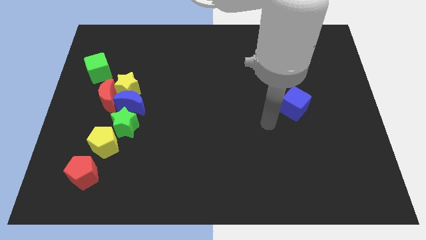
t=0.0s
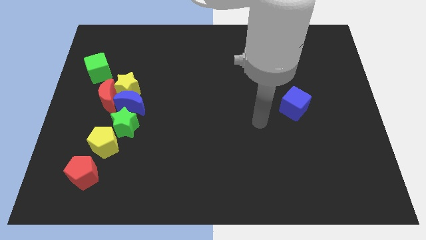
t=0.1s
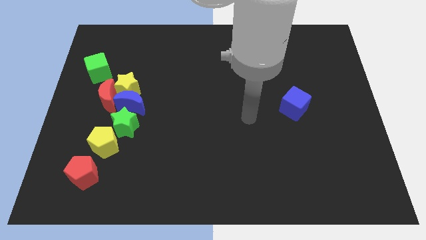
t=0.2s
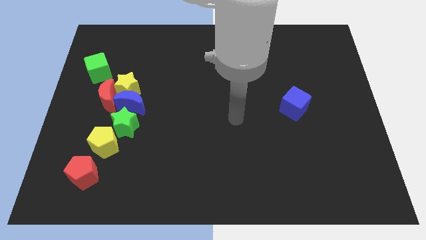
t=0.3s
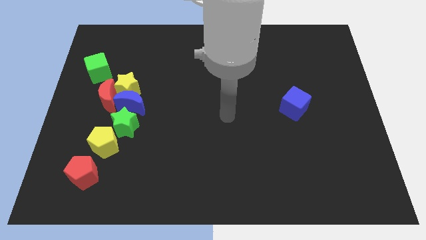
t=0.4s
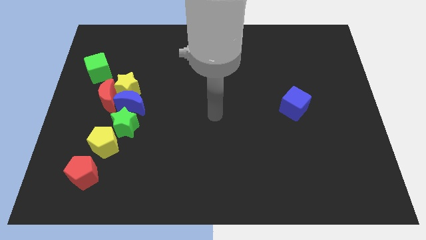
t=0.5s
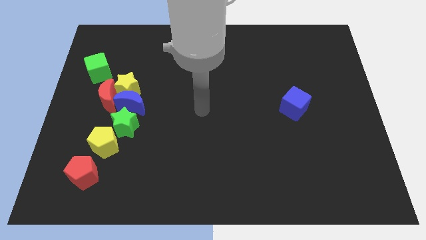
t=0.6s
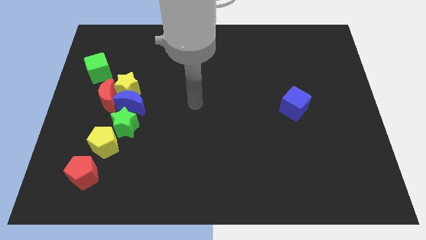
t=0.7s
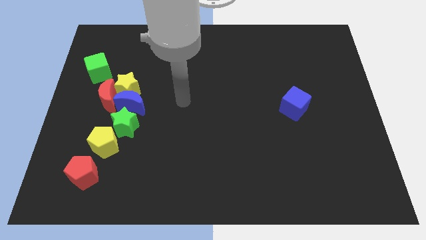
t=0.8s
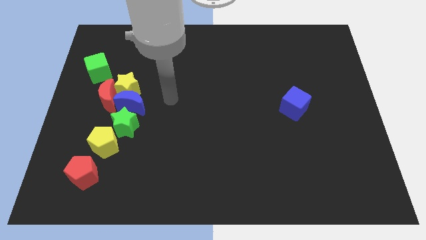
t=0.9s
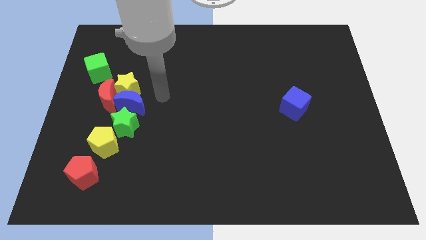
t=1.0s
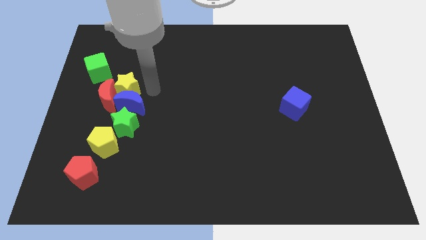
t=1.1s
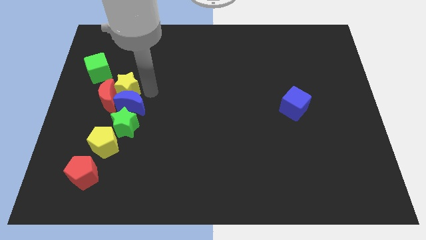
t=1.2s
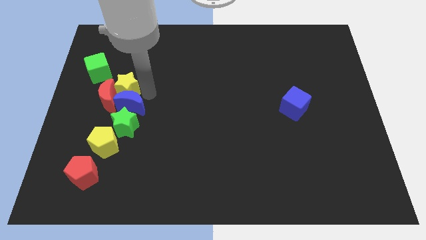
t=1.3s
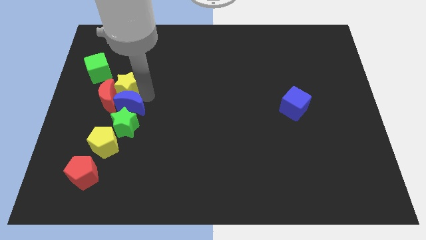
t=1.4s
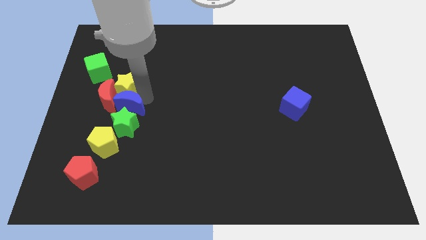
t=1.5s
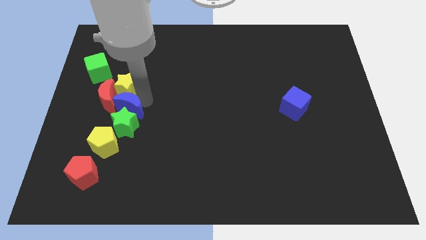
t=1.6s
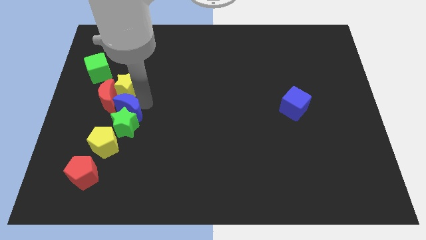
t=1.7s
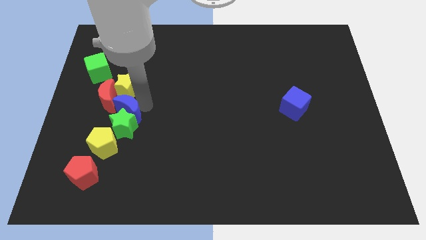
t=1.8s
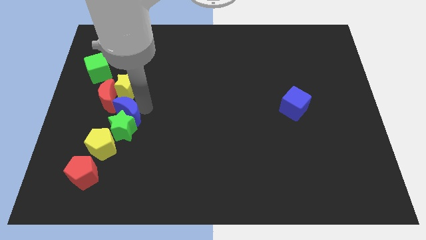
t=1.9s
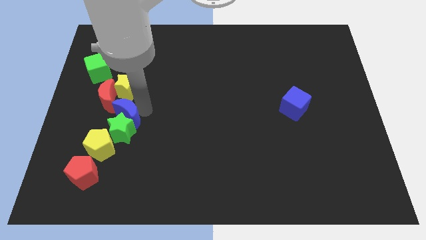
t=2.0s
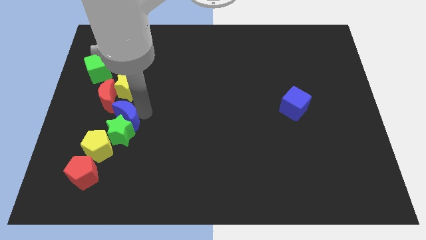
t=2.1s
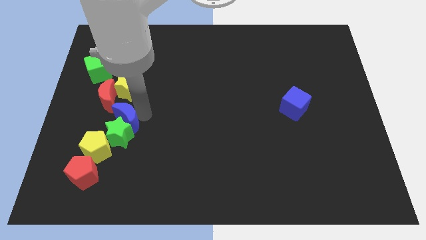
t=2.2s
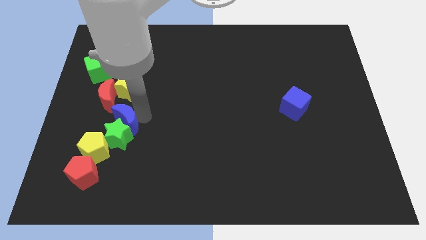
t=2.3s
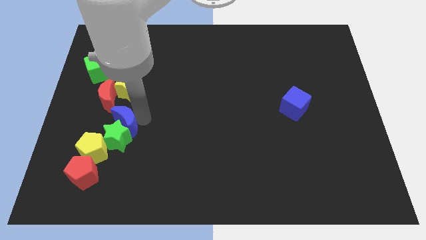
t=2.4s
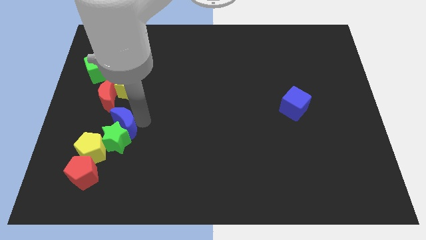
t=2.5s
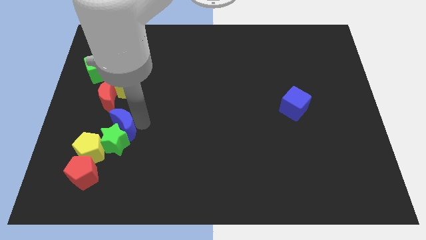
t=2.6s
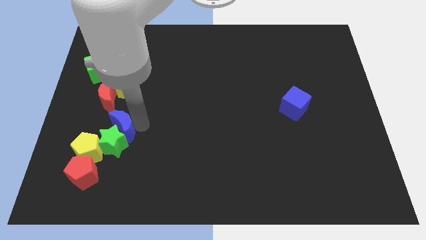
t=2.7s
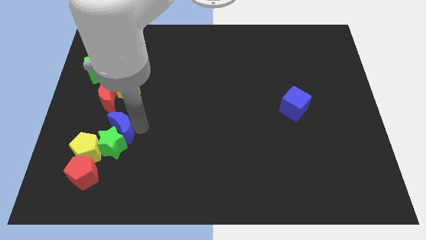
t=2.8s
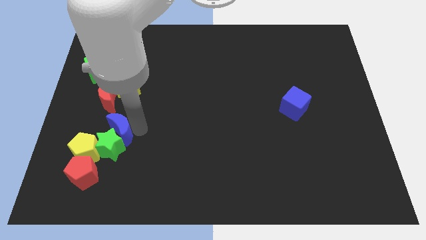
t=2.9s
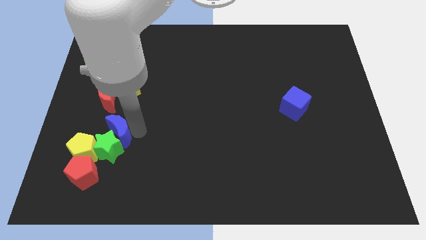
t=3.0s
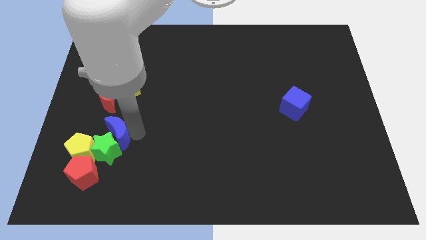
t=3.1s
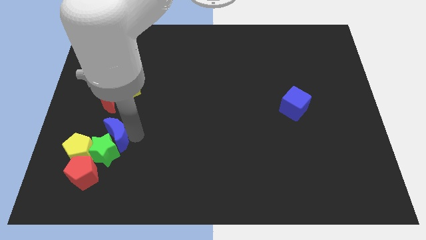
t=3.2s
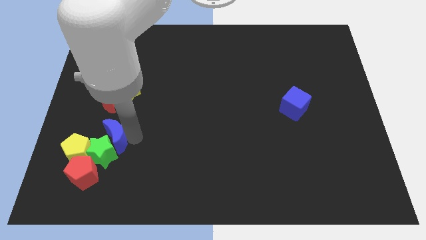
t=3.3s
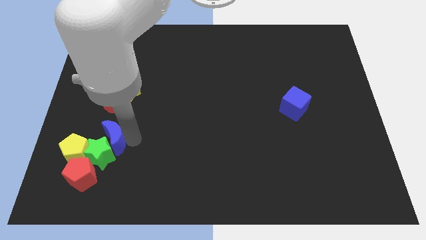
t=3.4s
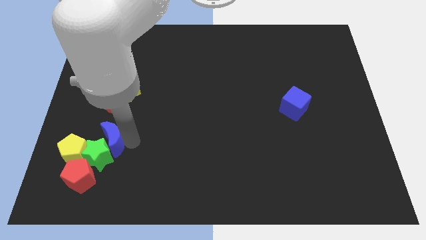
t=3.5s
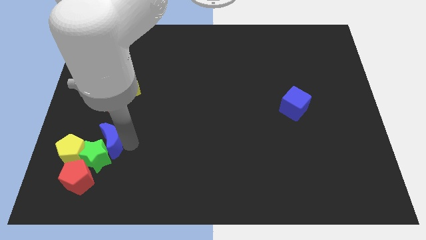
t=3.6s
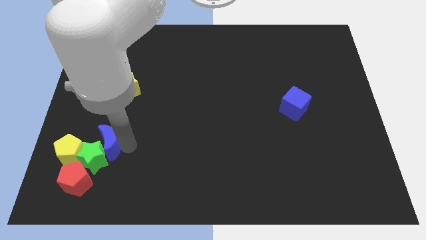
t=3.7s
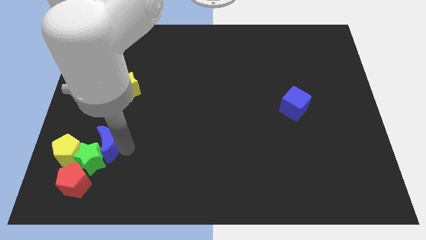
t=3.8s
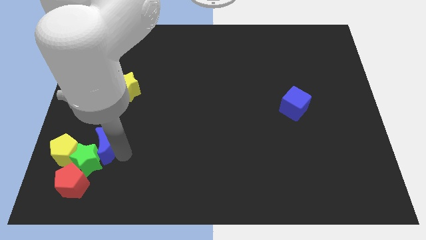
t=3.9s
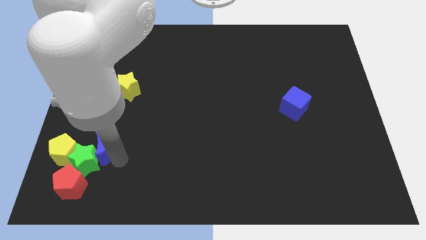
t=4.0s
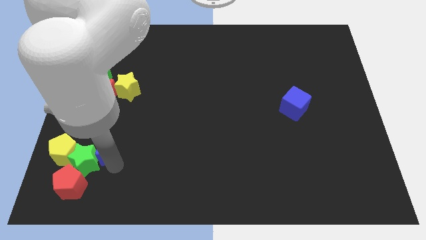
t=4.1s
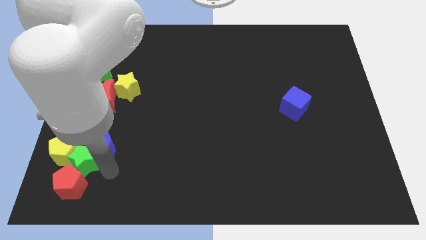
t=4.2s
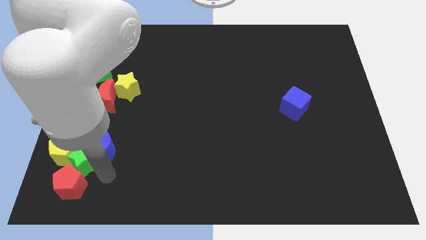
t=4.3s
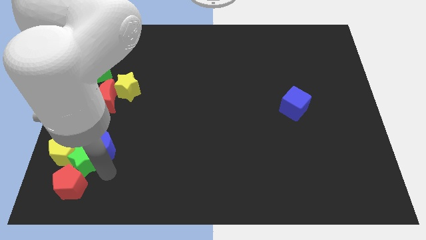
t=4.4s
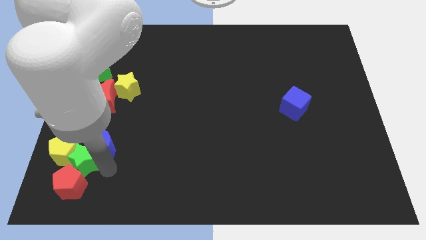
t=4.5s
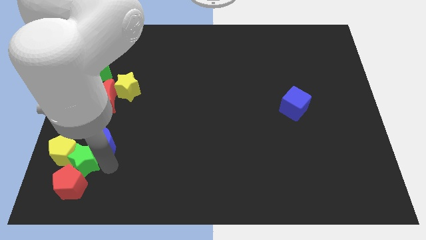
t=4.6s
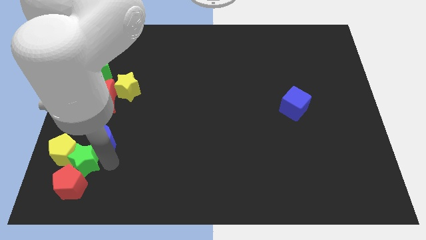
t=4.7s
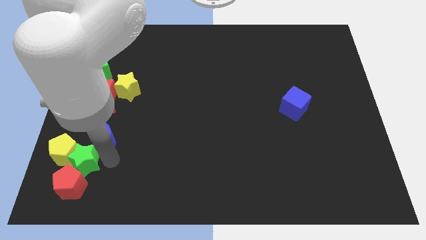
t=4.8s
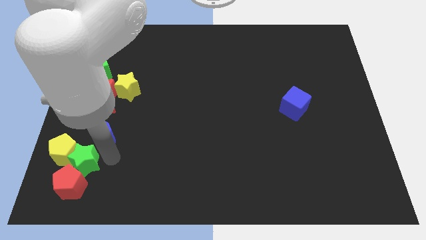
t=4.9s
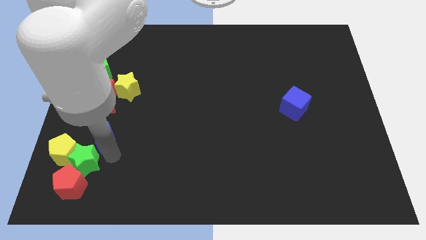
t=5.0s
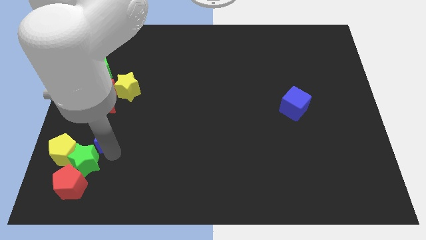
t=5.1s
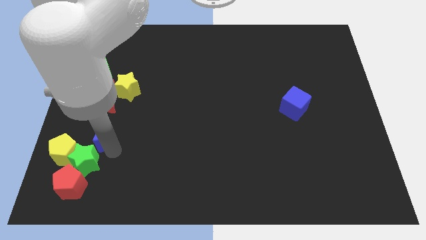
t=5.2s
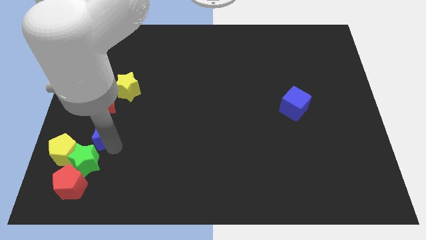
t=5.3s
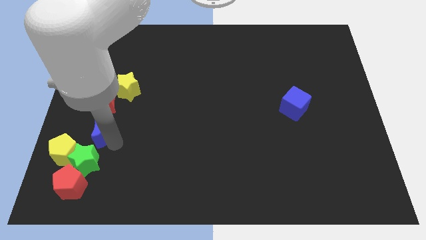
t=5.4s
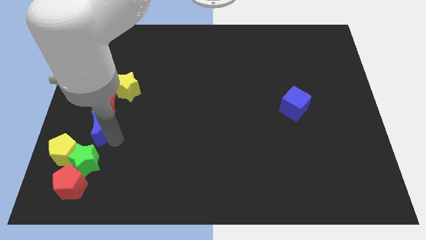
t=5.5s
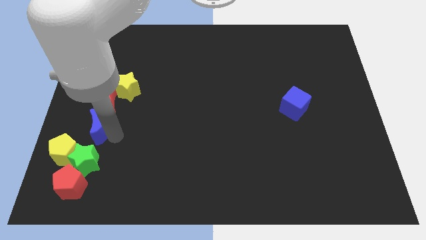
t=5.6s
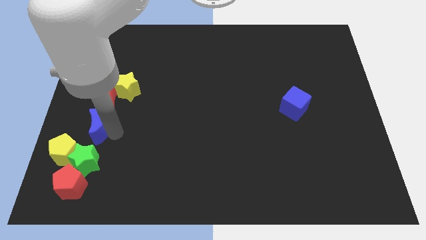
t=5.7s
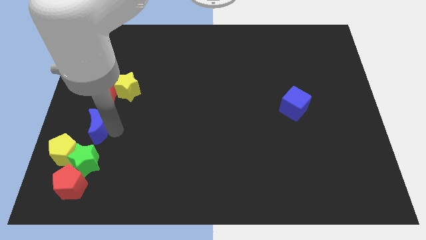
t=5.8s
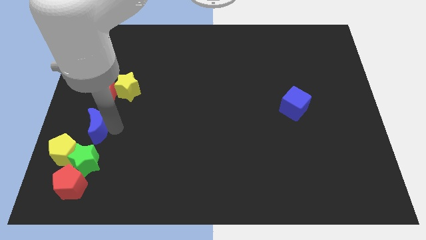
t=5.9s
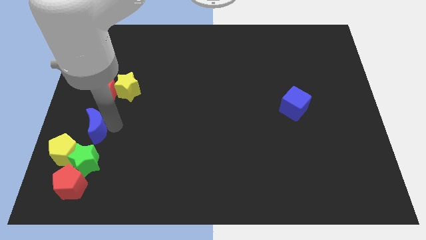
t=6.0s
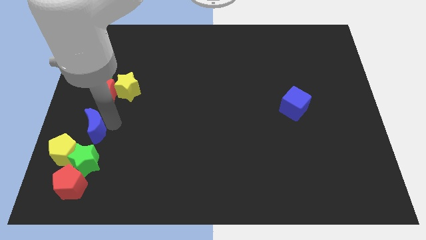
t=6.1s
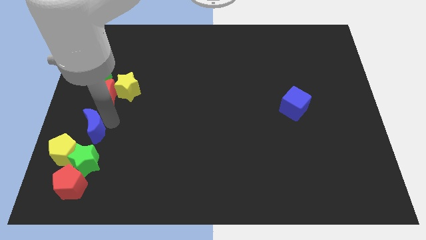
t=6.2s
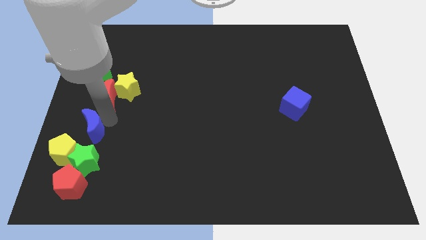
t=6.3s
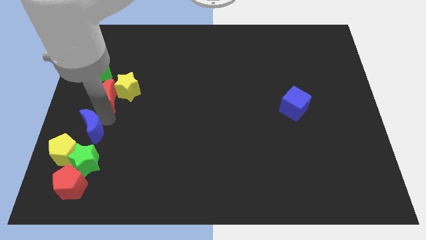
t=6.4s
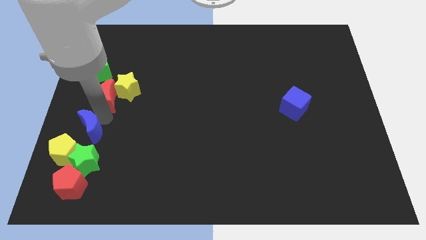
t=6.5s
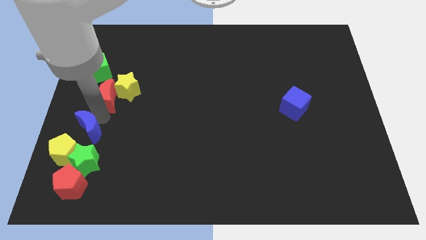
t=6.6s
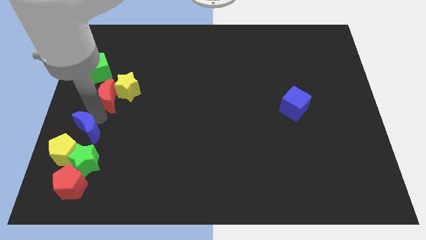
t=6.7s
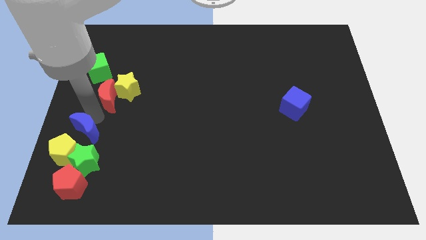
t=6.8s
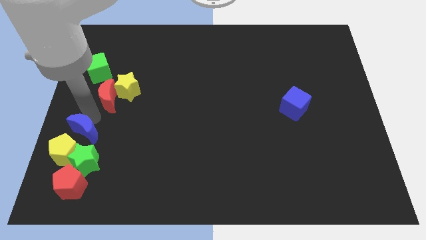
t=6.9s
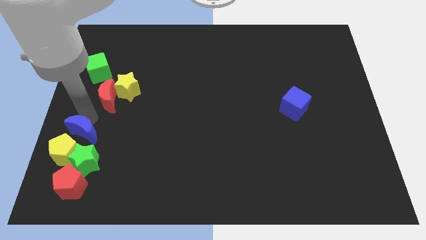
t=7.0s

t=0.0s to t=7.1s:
move the blue moon to the yellow pentagon

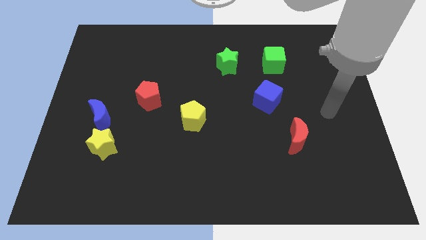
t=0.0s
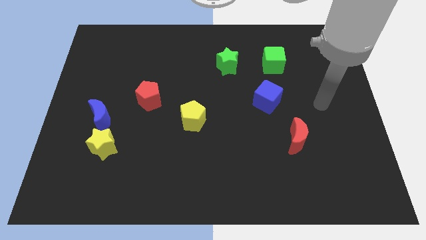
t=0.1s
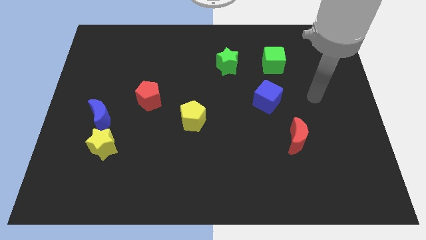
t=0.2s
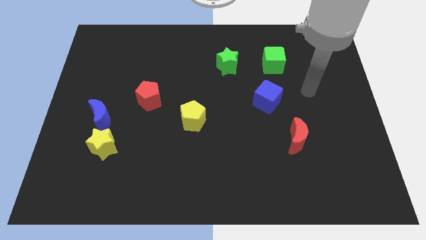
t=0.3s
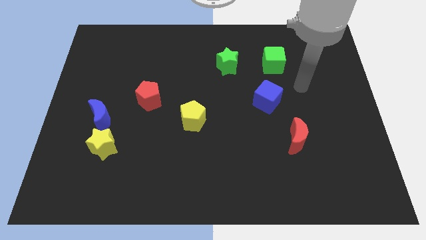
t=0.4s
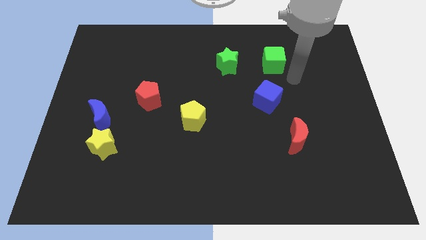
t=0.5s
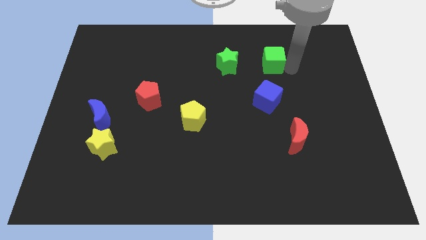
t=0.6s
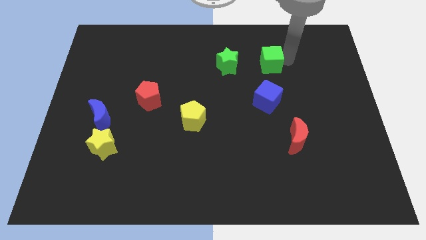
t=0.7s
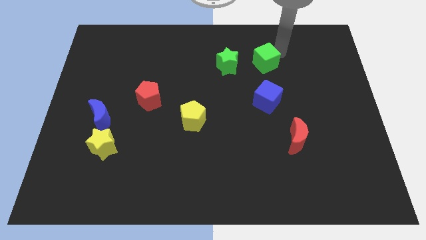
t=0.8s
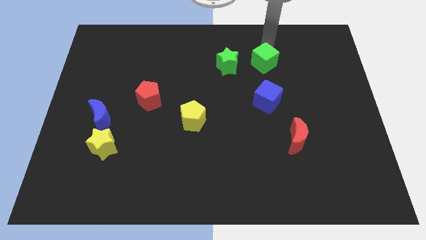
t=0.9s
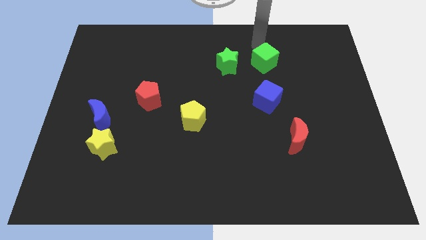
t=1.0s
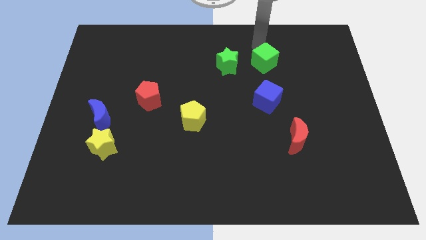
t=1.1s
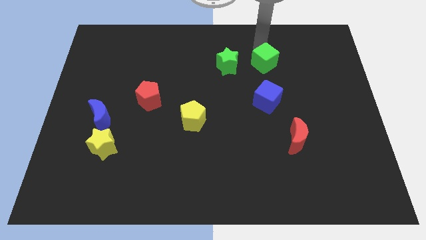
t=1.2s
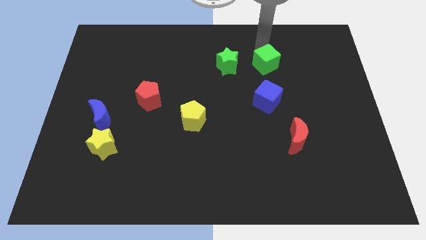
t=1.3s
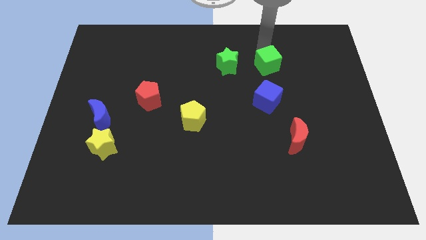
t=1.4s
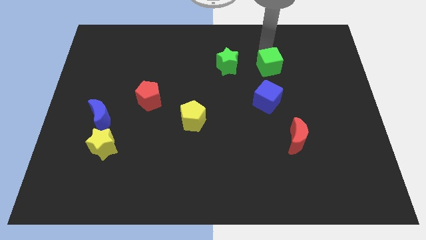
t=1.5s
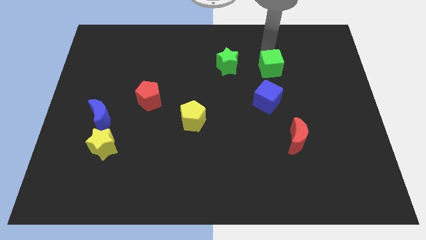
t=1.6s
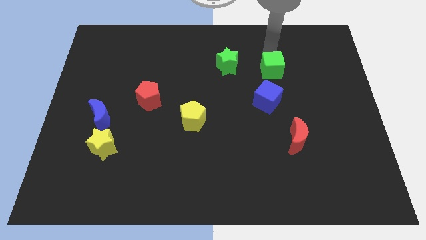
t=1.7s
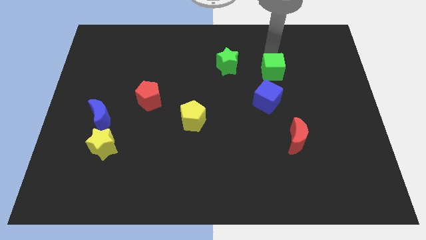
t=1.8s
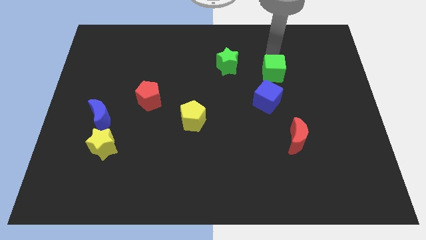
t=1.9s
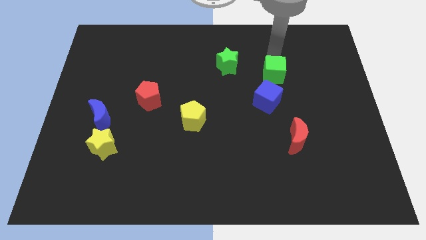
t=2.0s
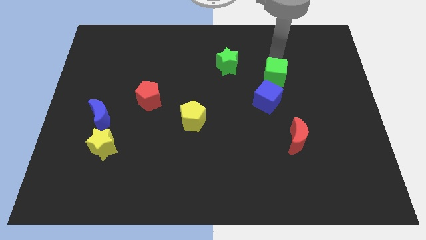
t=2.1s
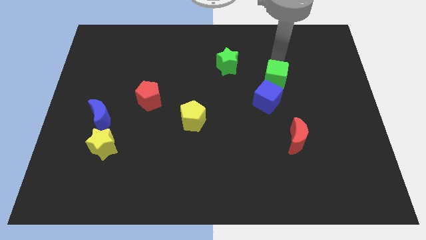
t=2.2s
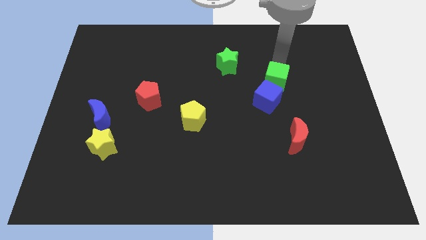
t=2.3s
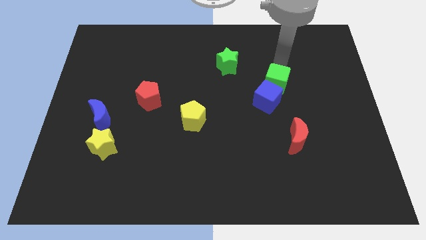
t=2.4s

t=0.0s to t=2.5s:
put the green cube close to the blue cube
